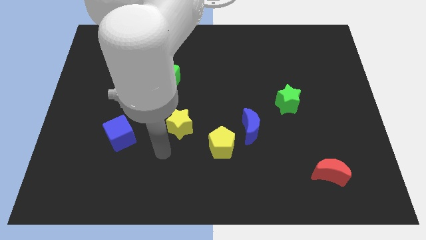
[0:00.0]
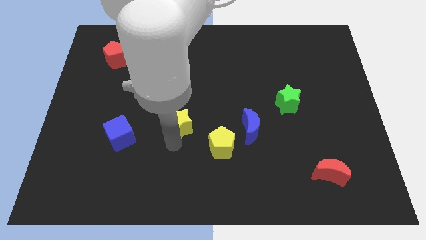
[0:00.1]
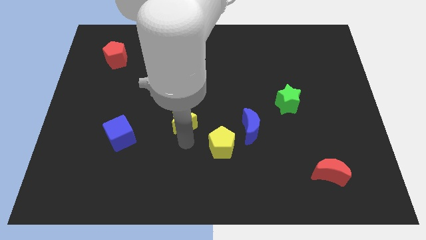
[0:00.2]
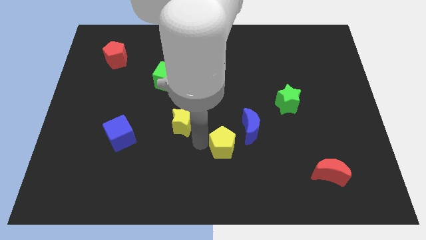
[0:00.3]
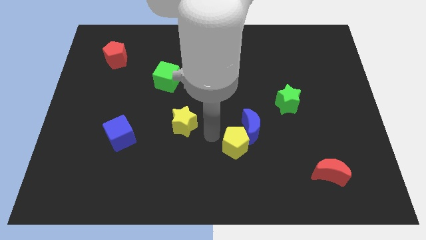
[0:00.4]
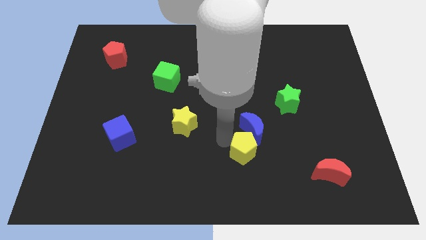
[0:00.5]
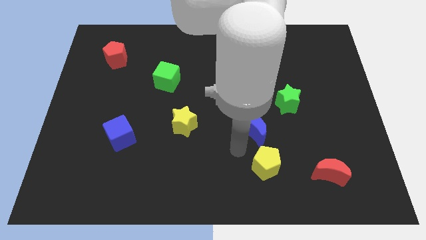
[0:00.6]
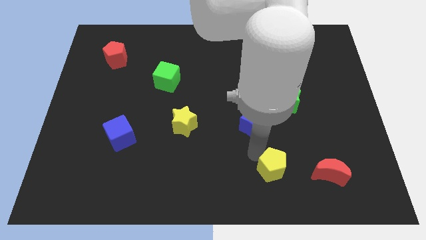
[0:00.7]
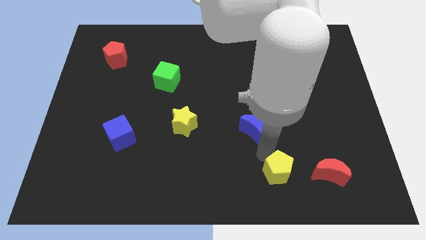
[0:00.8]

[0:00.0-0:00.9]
separate the blue moon from the yellow pentagon

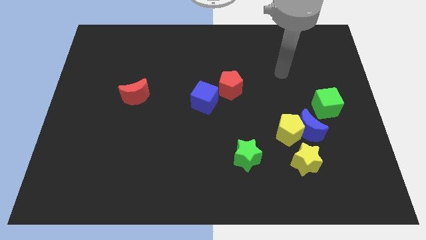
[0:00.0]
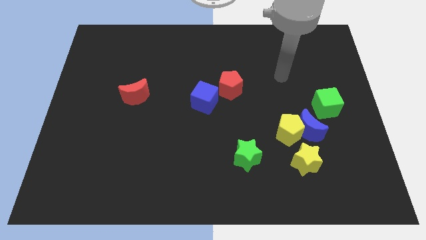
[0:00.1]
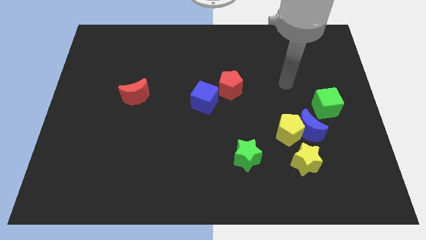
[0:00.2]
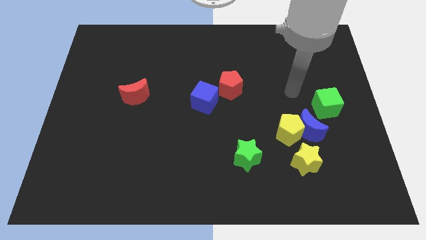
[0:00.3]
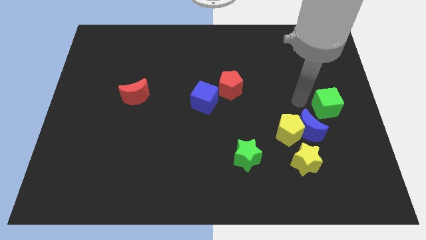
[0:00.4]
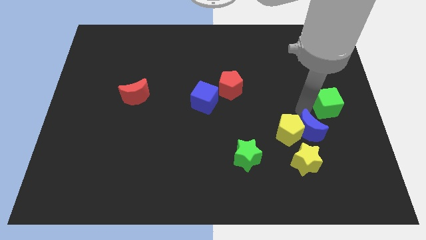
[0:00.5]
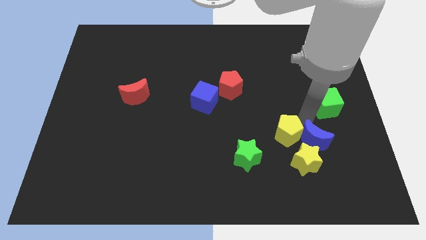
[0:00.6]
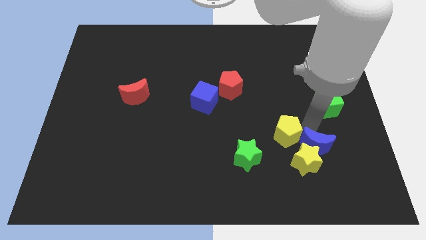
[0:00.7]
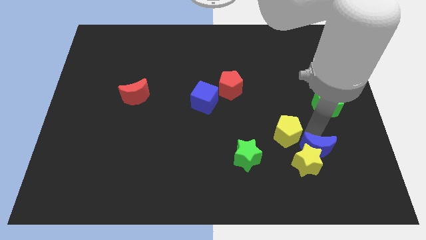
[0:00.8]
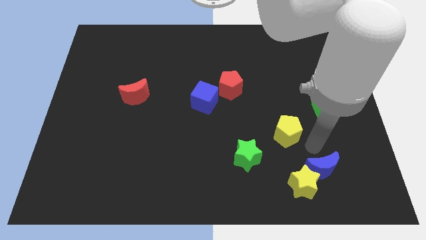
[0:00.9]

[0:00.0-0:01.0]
pull the yellow pentagon apart from the blue moon and yellow star

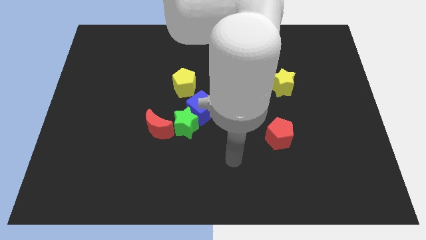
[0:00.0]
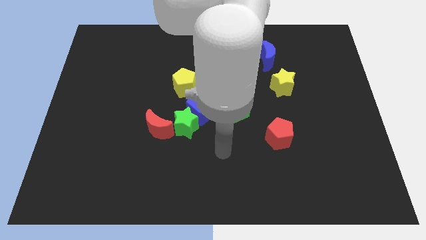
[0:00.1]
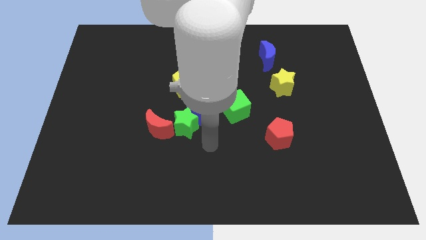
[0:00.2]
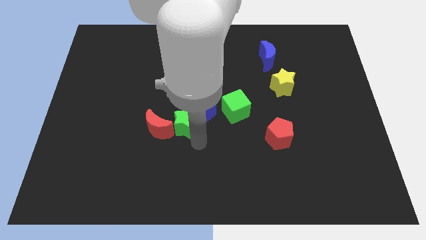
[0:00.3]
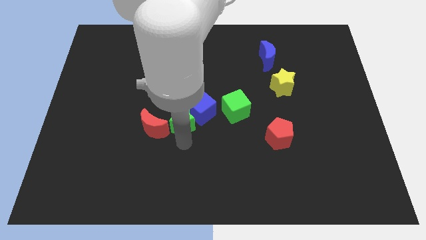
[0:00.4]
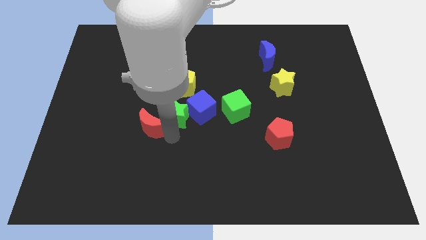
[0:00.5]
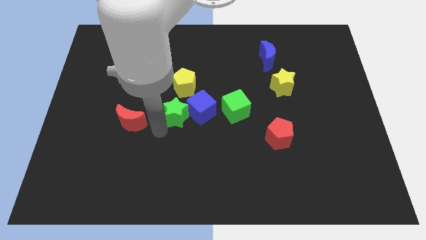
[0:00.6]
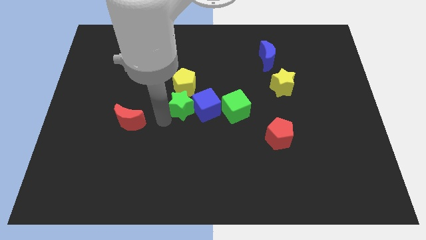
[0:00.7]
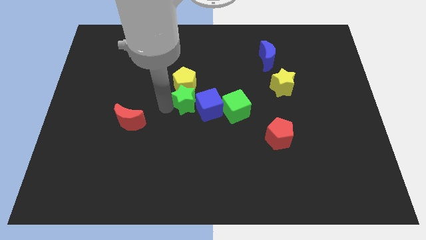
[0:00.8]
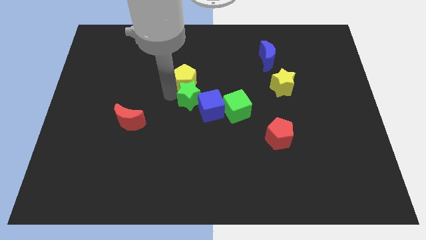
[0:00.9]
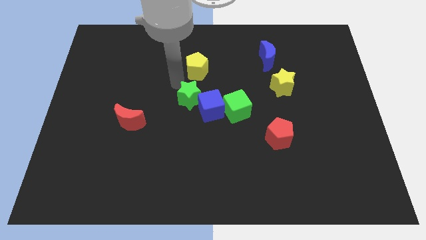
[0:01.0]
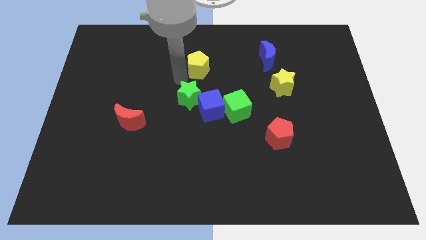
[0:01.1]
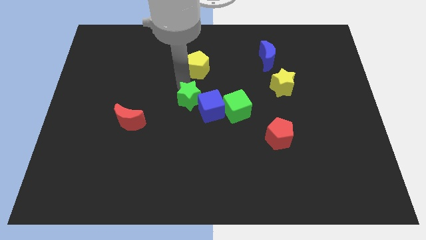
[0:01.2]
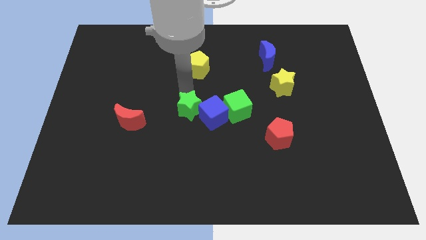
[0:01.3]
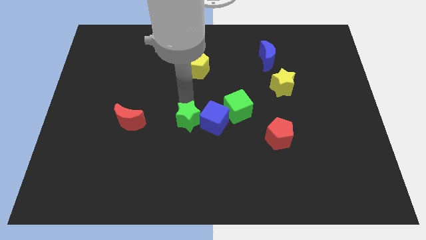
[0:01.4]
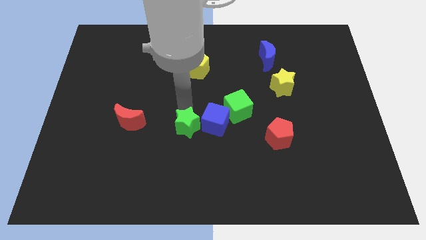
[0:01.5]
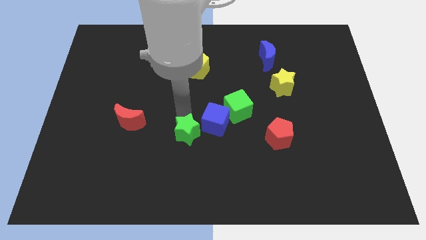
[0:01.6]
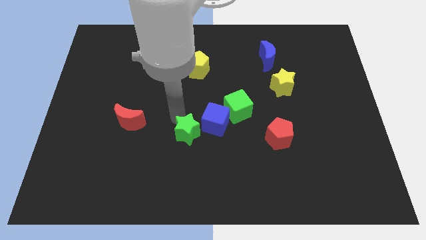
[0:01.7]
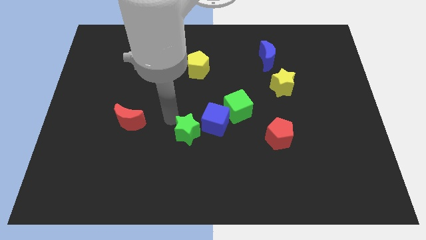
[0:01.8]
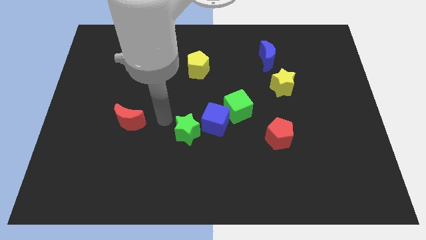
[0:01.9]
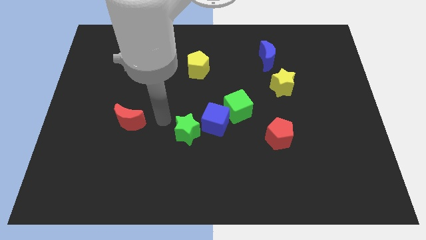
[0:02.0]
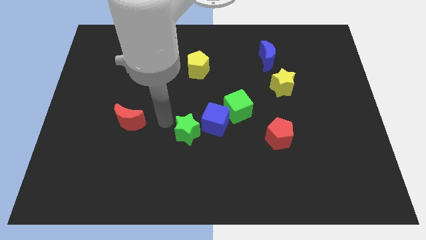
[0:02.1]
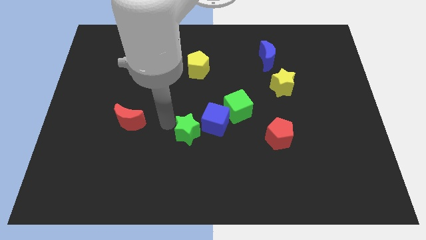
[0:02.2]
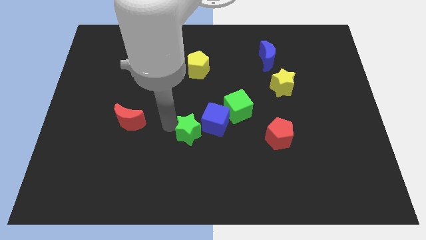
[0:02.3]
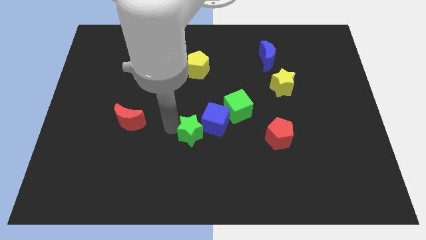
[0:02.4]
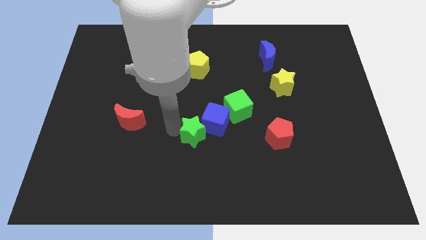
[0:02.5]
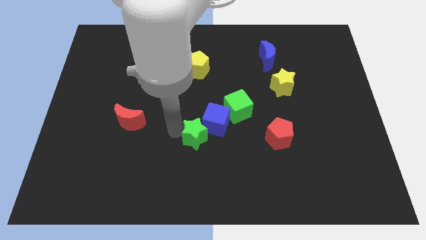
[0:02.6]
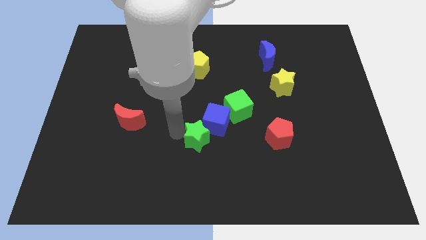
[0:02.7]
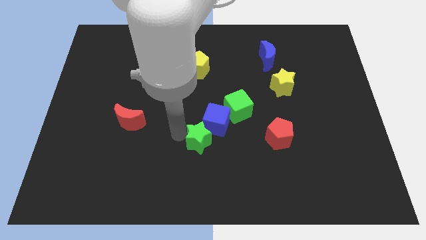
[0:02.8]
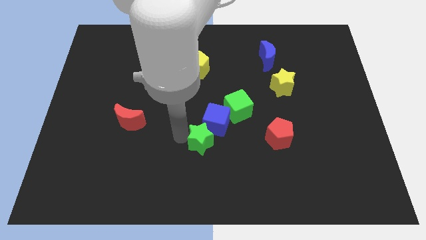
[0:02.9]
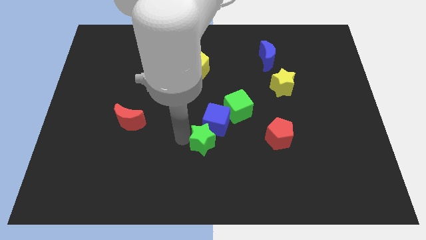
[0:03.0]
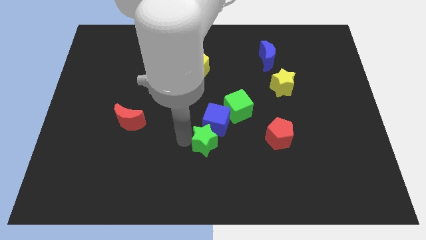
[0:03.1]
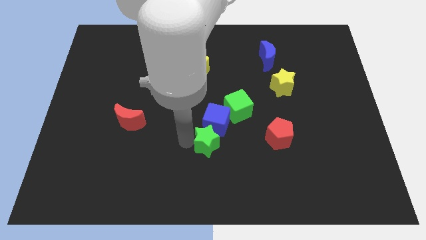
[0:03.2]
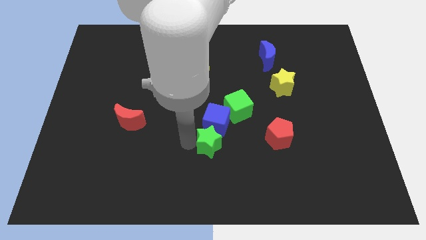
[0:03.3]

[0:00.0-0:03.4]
separate the green star from the blue cube and red moon

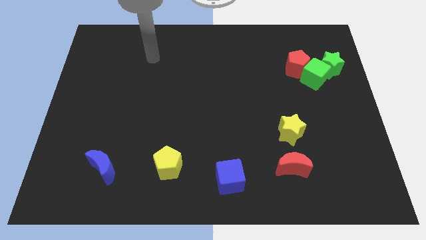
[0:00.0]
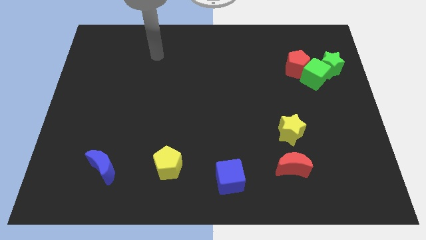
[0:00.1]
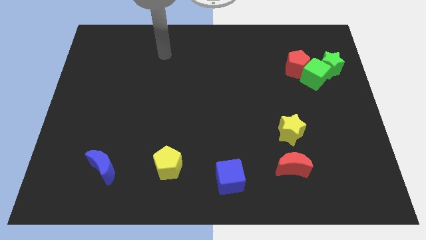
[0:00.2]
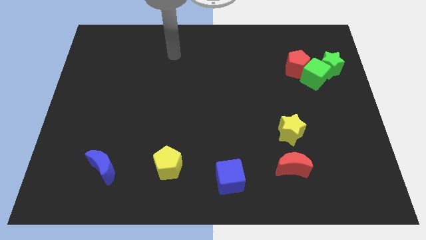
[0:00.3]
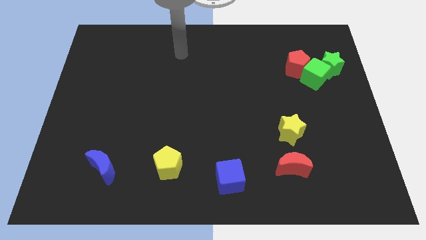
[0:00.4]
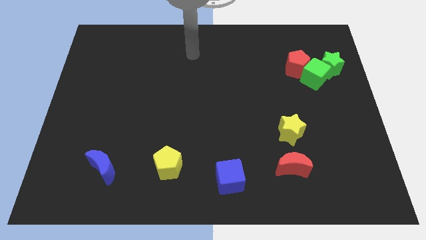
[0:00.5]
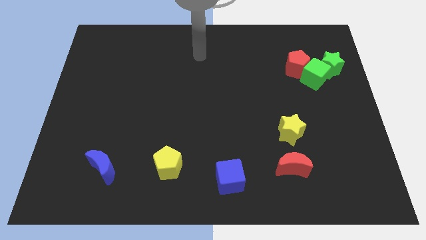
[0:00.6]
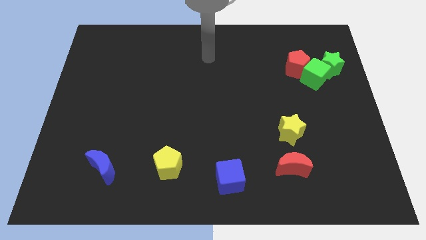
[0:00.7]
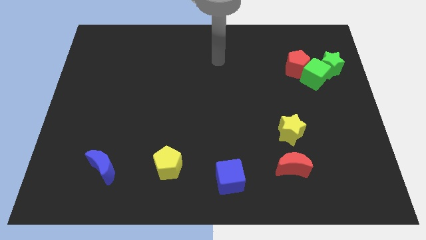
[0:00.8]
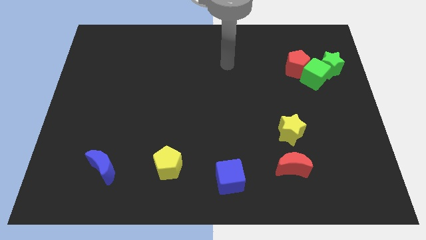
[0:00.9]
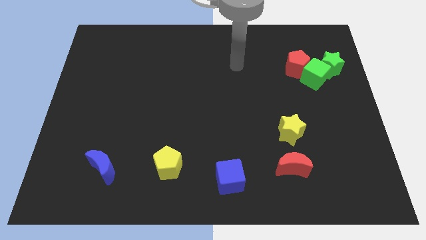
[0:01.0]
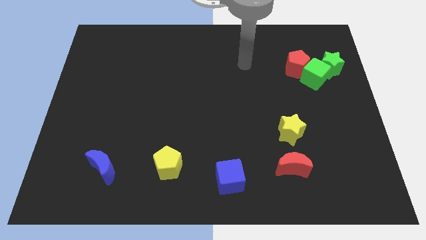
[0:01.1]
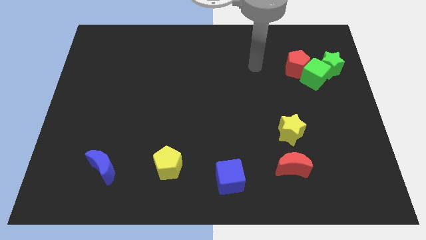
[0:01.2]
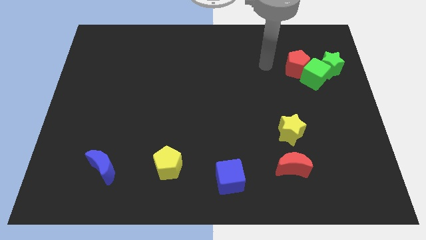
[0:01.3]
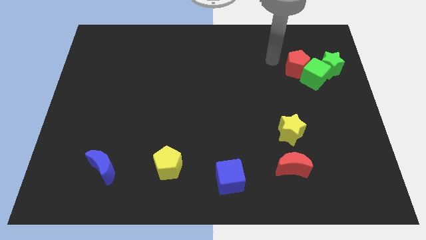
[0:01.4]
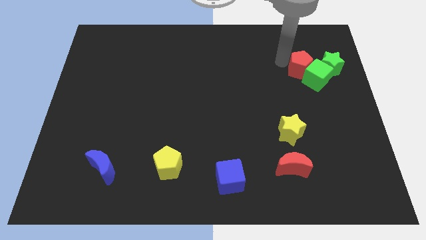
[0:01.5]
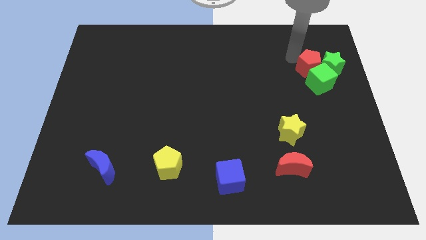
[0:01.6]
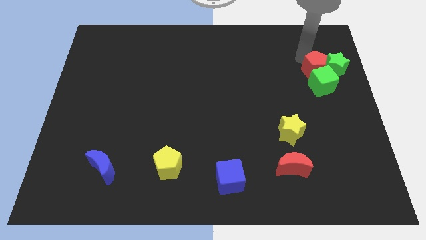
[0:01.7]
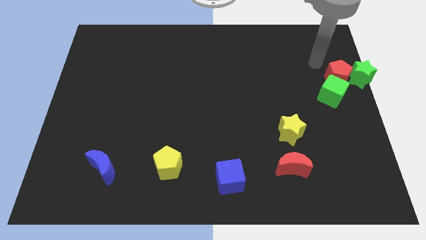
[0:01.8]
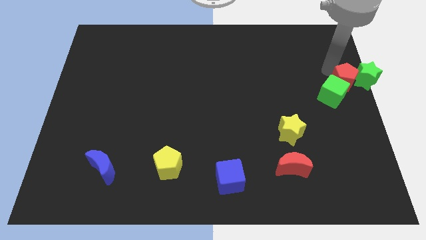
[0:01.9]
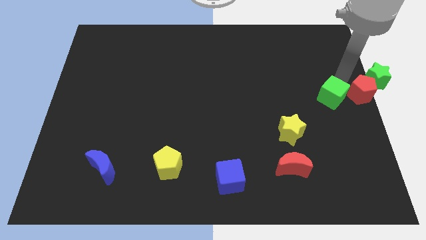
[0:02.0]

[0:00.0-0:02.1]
move the green cube away from the red pentagon and green star

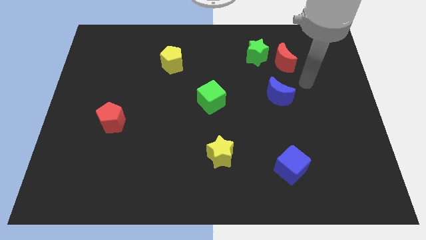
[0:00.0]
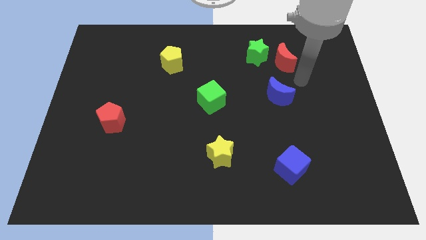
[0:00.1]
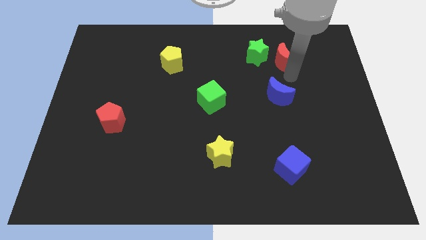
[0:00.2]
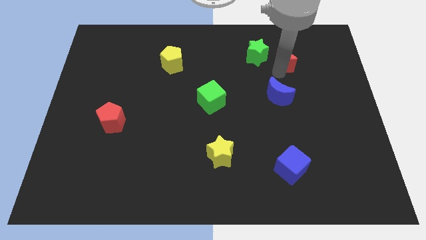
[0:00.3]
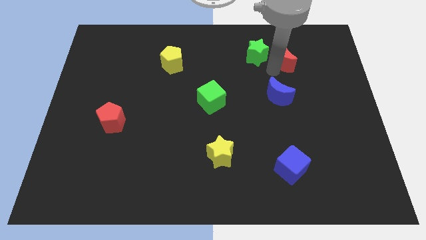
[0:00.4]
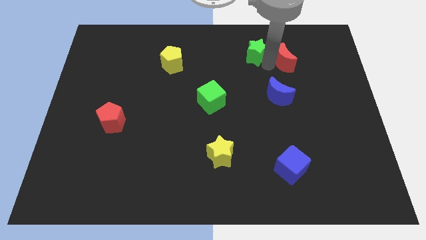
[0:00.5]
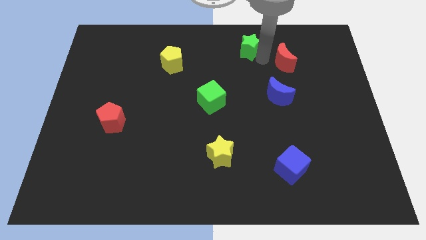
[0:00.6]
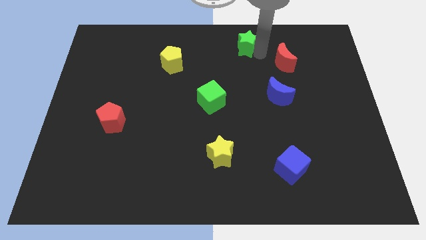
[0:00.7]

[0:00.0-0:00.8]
separate the red moon from the green star

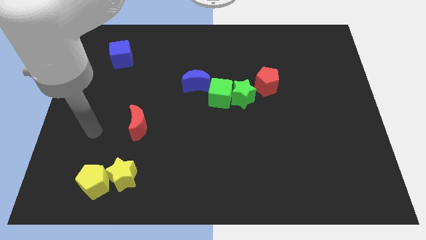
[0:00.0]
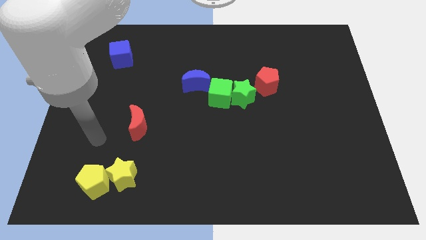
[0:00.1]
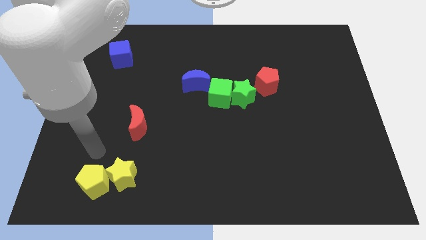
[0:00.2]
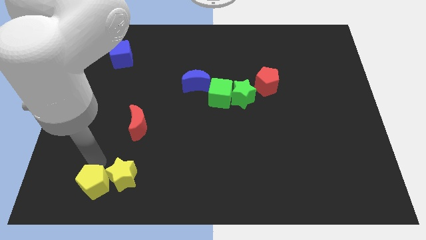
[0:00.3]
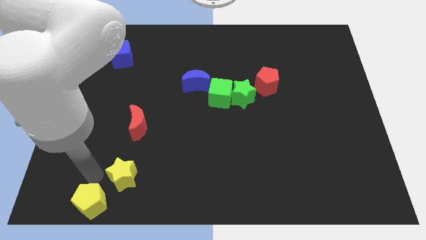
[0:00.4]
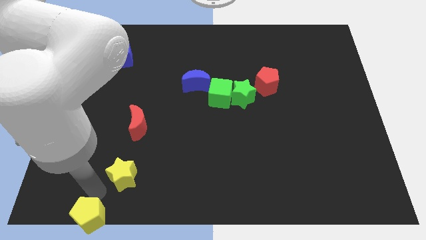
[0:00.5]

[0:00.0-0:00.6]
separate the yellow star from the yellow pentagon

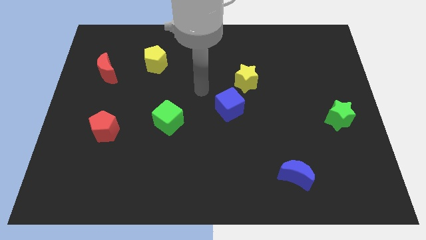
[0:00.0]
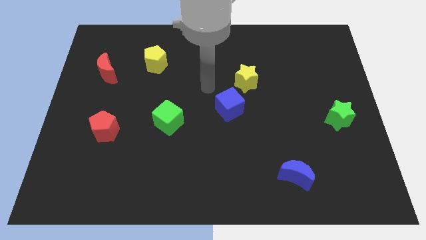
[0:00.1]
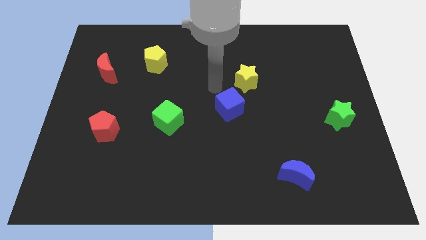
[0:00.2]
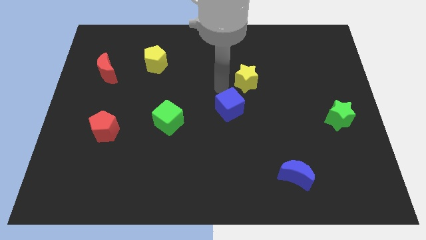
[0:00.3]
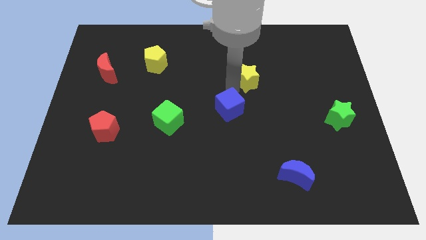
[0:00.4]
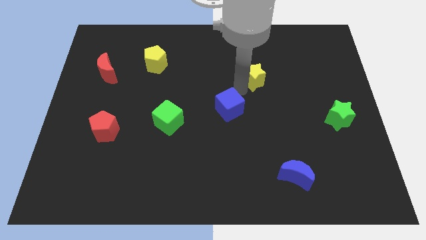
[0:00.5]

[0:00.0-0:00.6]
pull the blue cube apart from the yellow star
